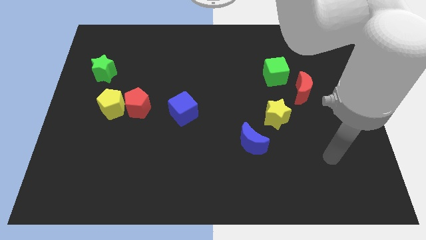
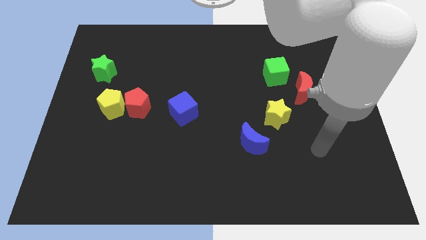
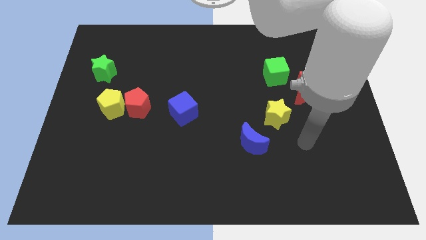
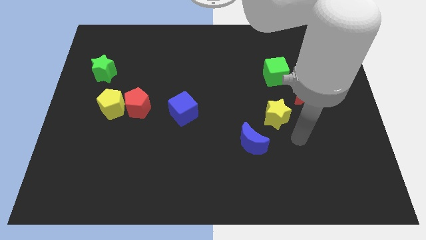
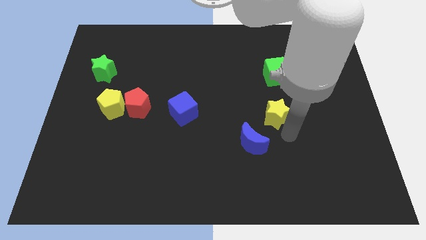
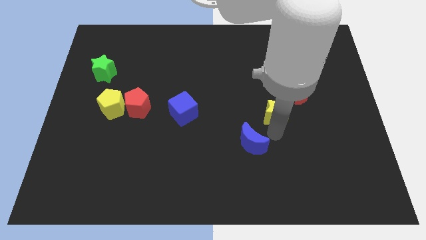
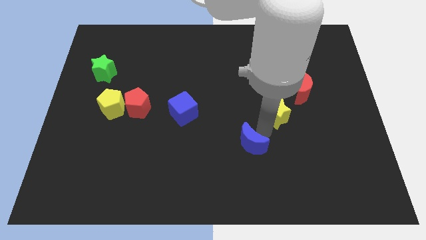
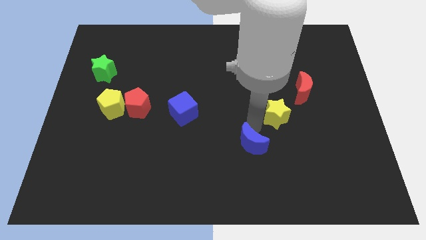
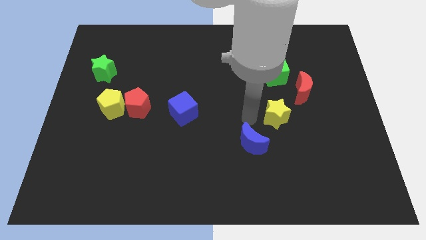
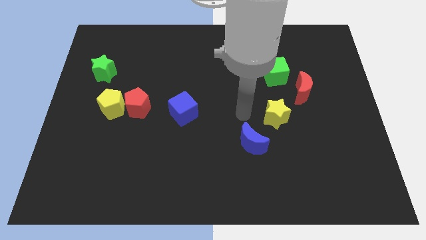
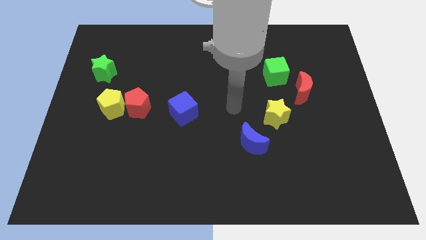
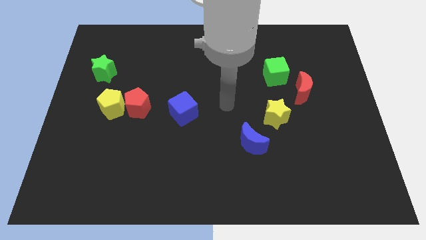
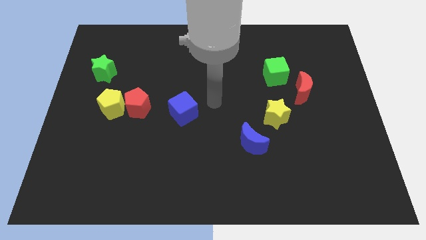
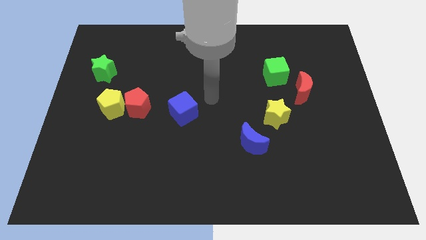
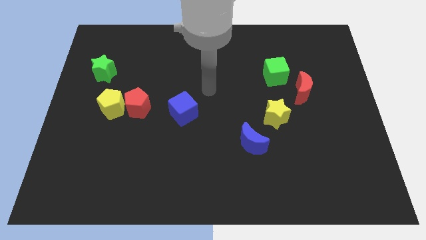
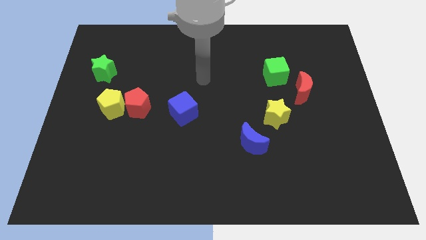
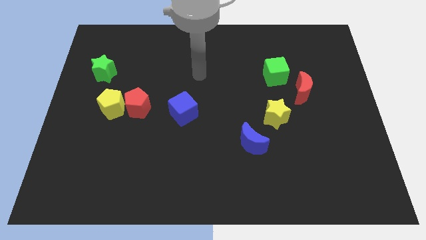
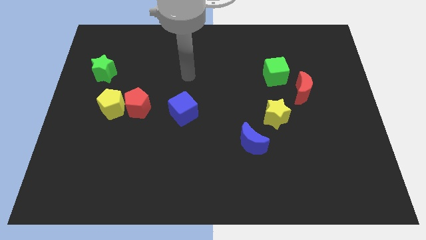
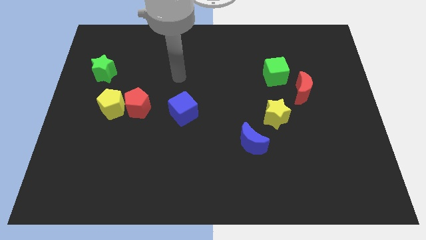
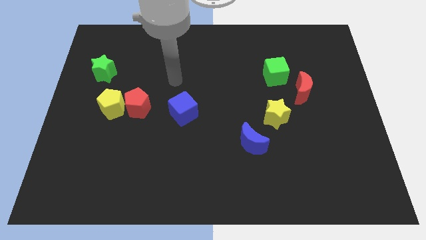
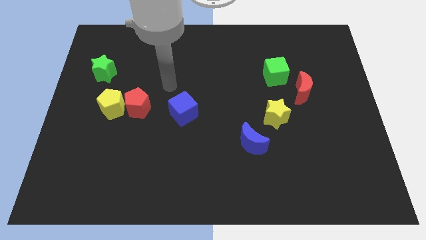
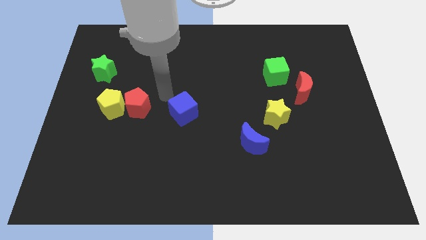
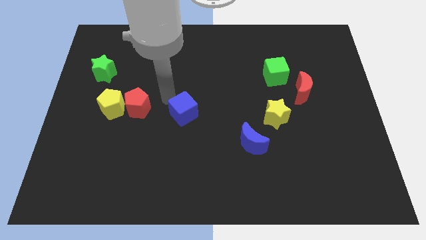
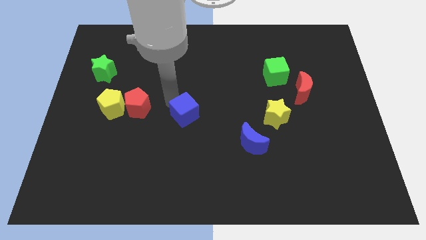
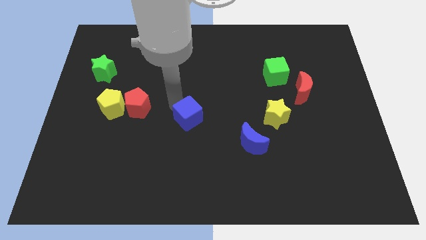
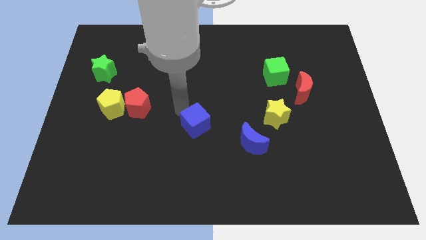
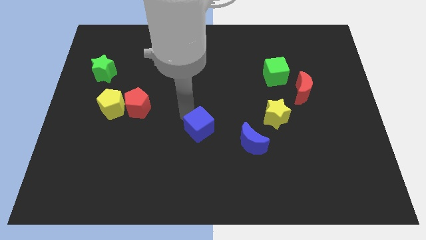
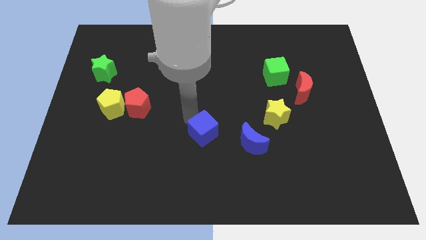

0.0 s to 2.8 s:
slightly push the blue cube diagonally downwards and to the right

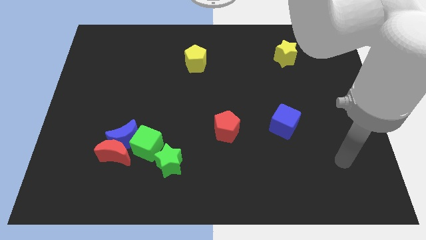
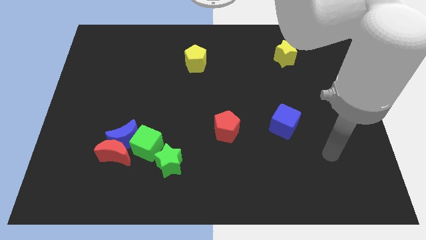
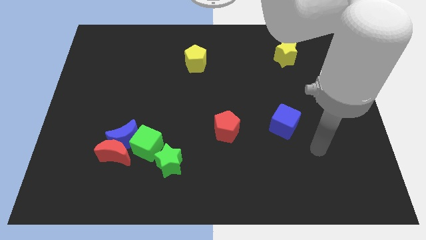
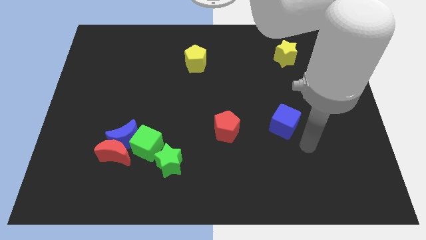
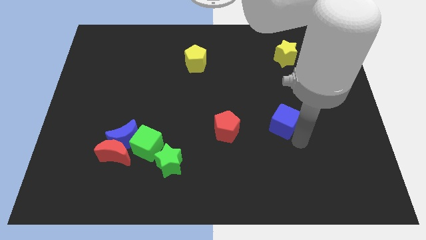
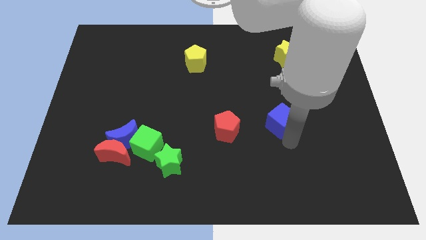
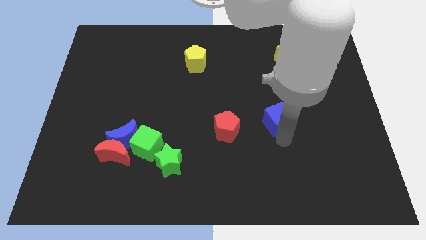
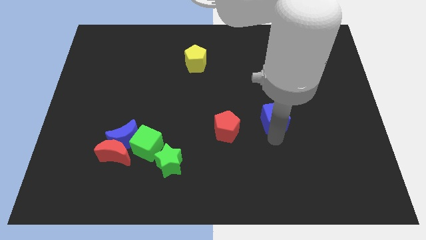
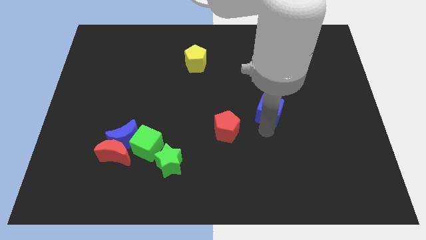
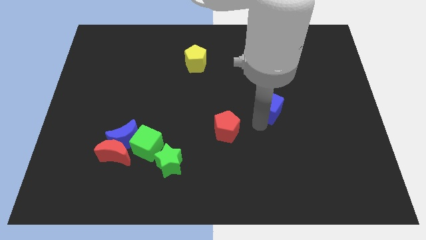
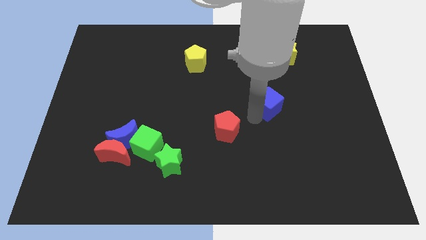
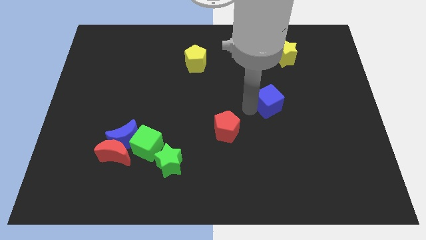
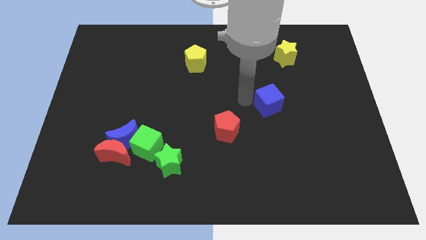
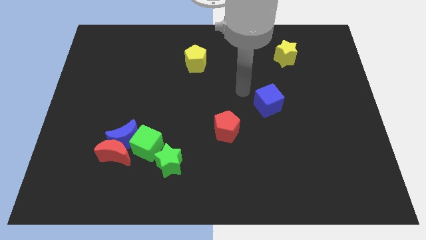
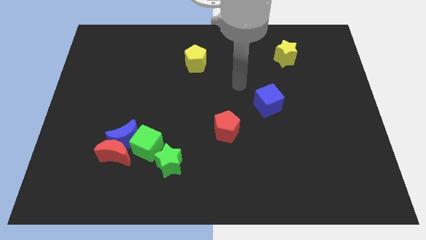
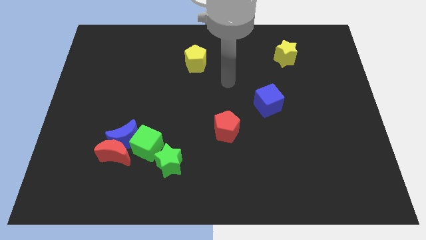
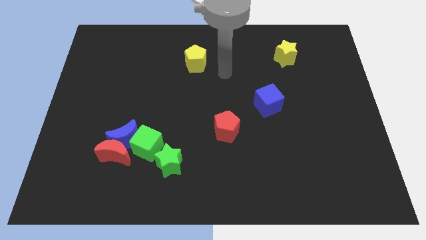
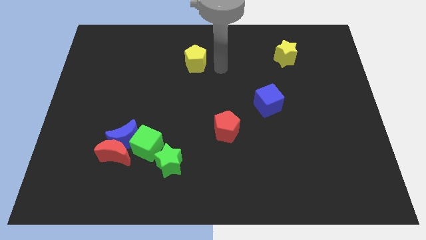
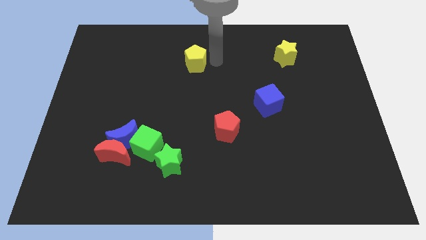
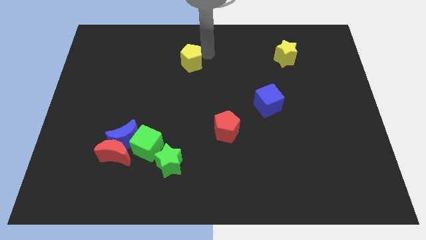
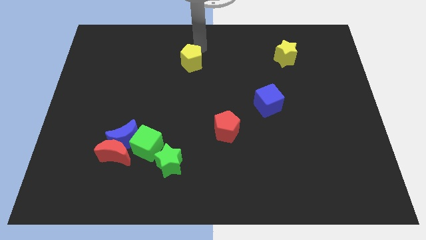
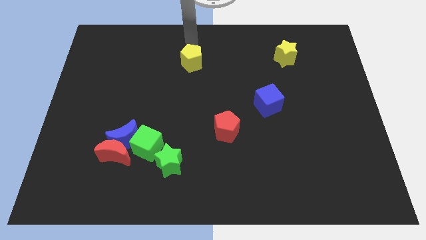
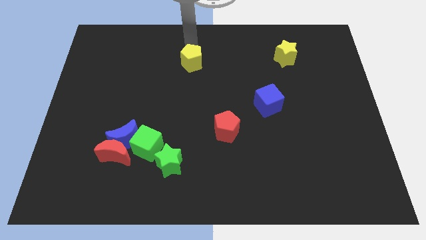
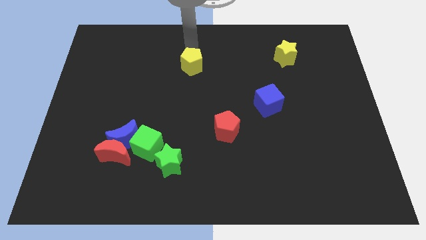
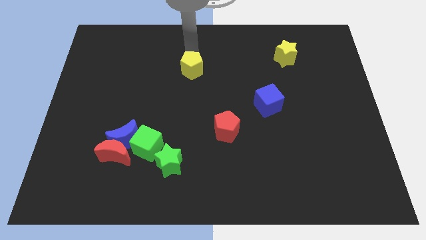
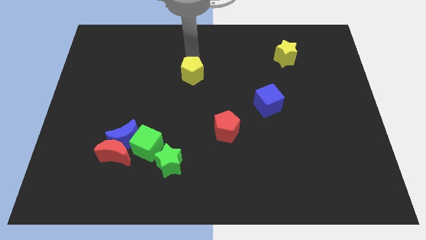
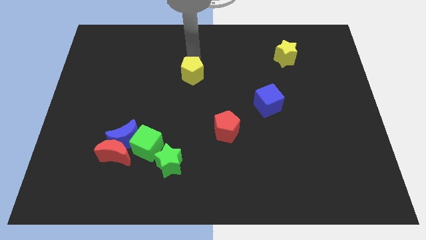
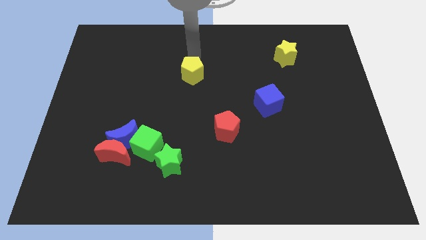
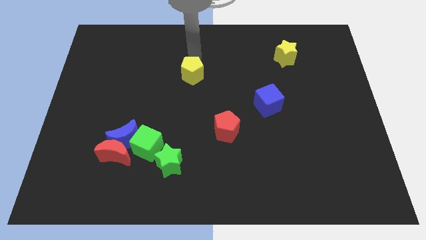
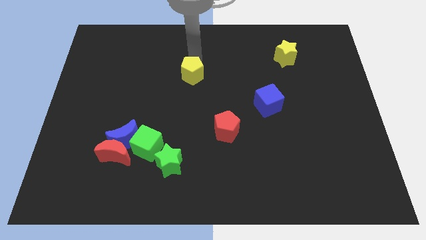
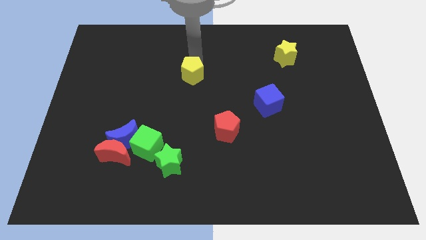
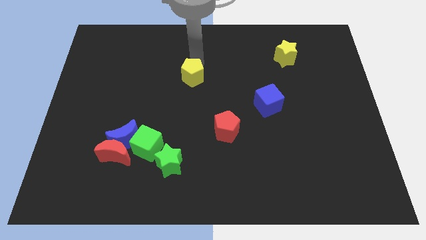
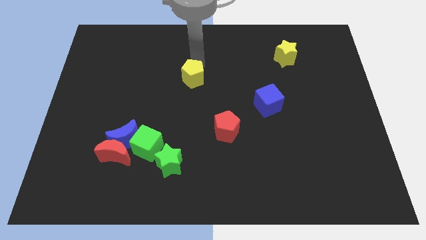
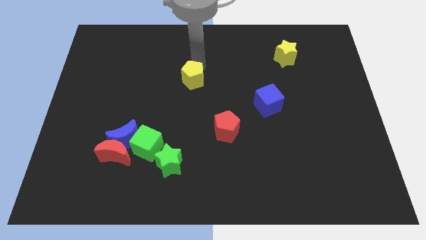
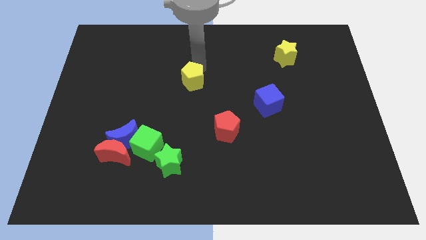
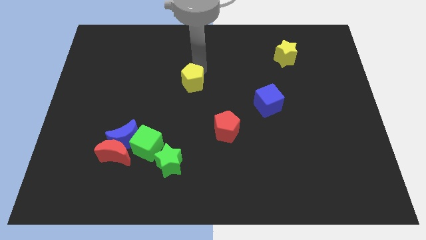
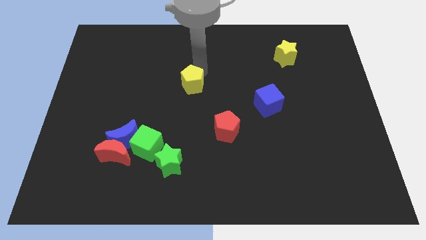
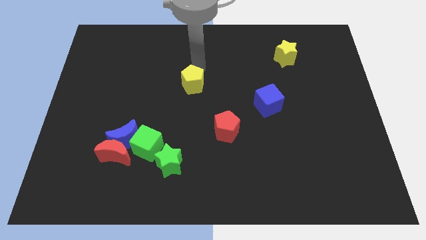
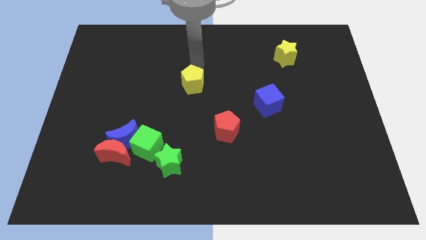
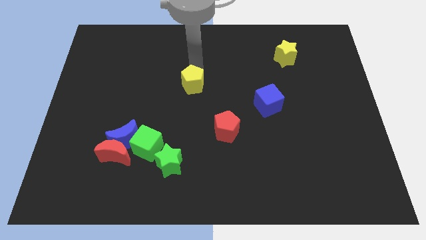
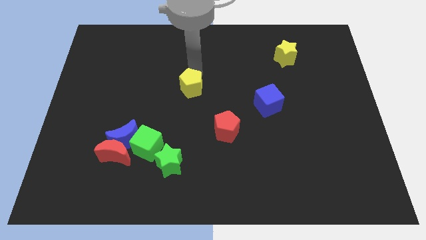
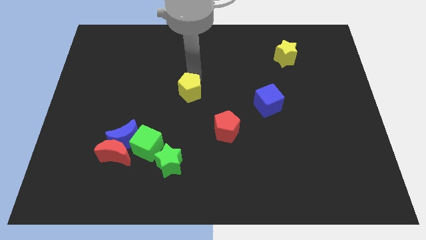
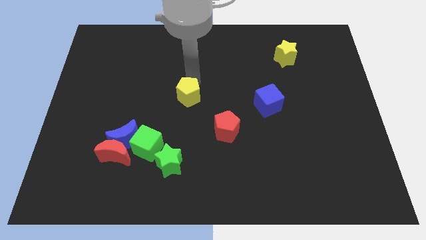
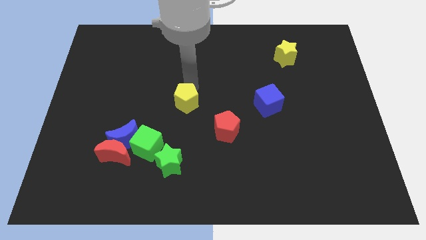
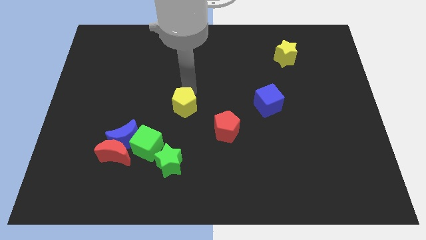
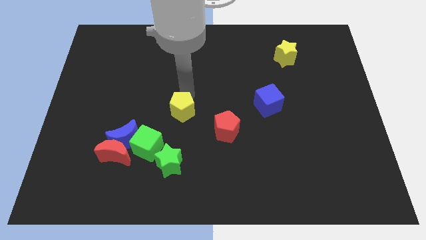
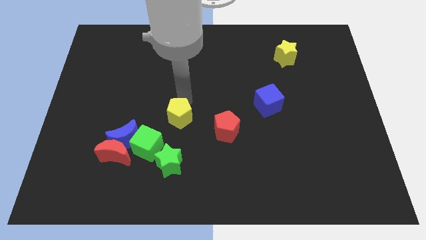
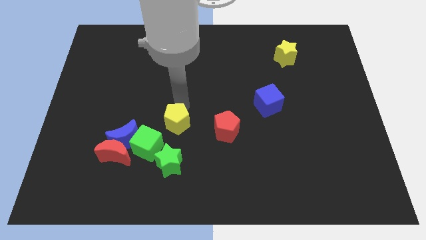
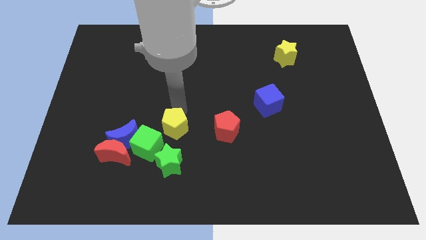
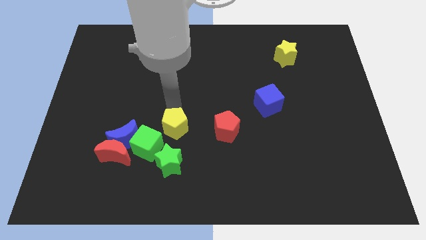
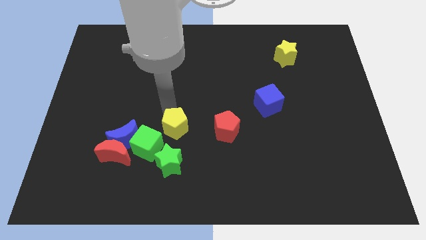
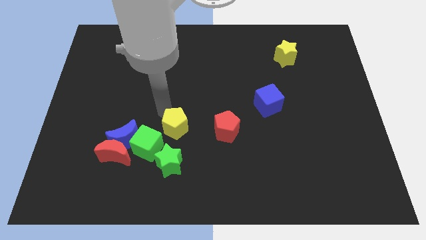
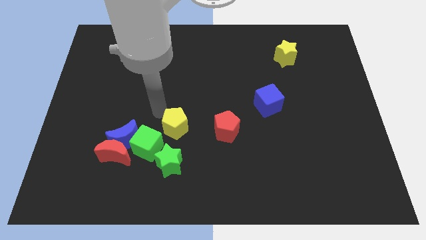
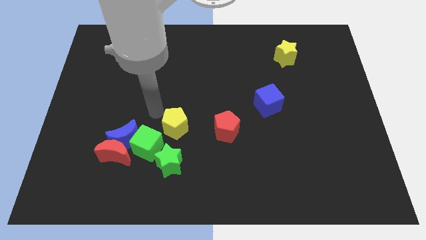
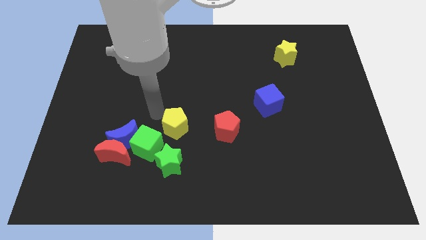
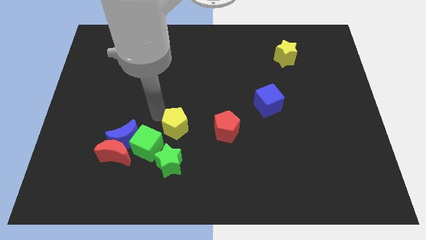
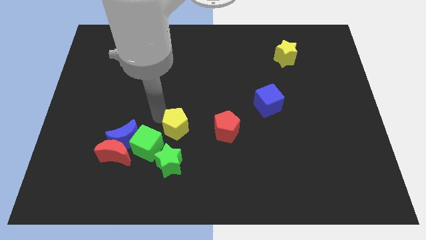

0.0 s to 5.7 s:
slide the yellow pentagon down
